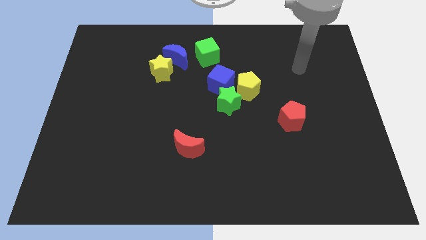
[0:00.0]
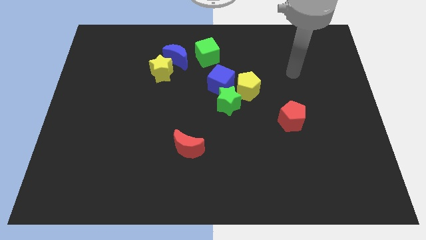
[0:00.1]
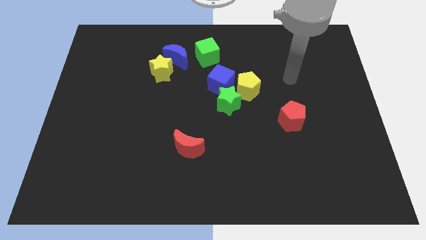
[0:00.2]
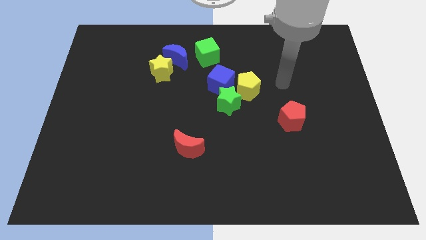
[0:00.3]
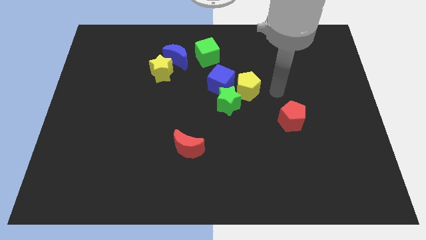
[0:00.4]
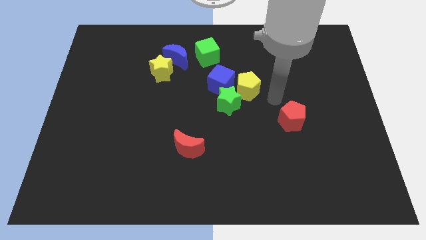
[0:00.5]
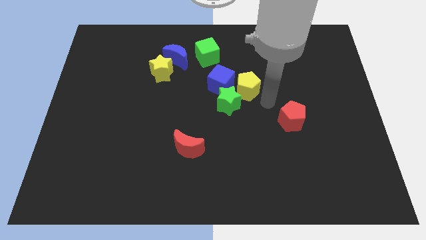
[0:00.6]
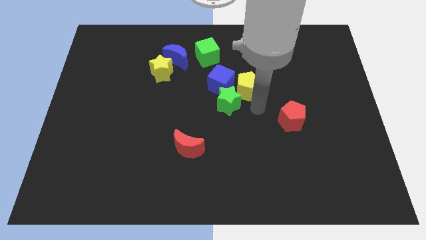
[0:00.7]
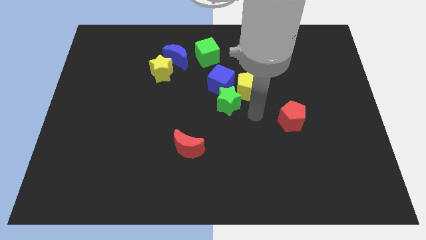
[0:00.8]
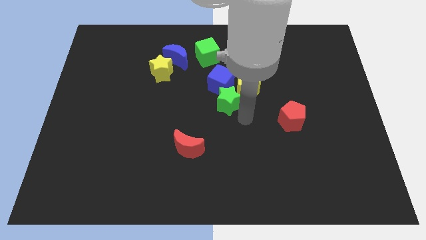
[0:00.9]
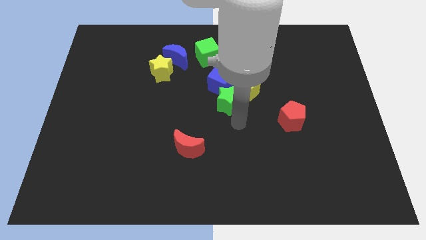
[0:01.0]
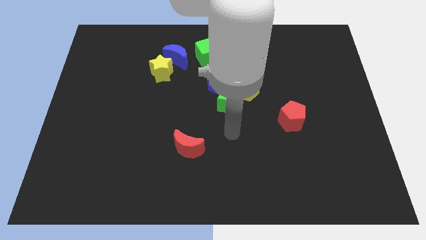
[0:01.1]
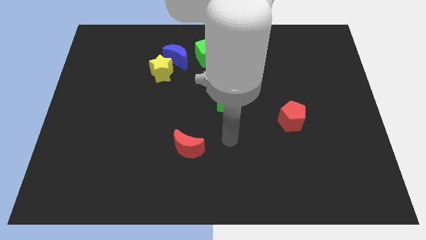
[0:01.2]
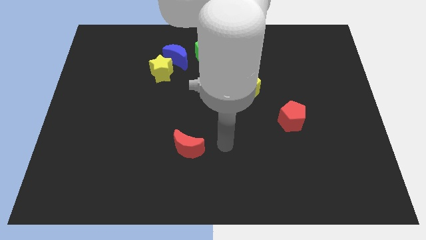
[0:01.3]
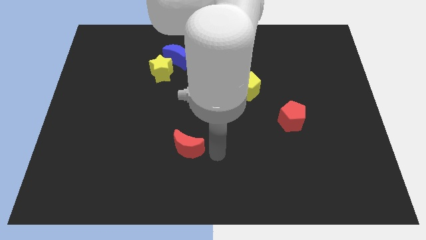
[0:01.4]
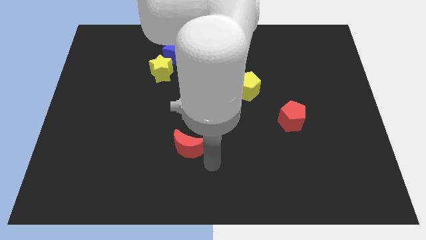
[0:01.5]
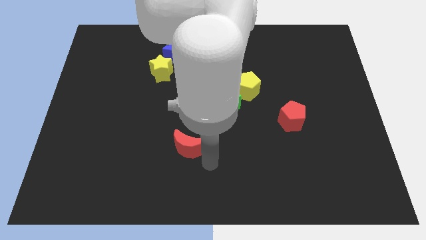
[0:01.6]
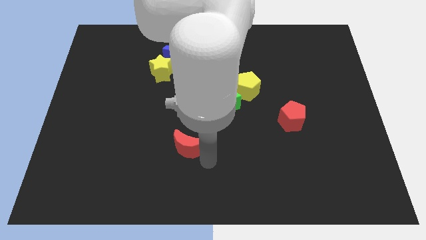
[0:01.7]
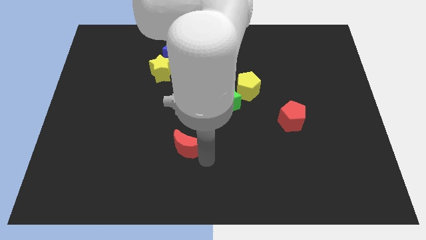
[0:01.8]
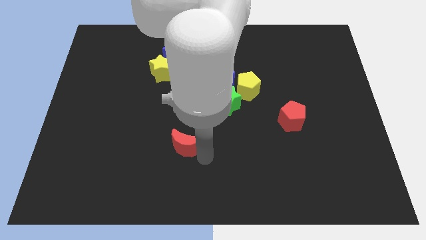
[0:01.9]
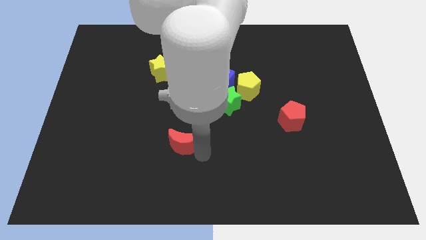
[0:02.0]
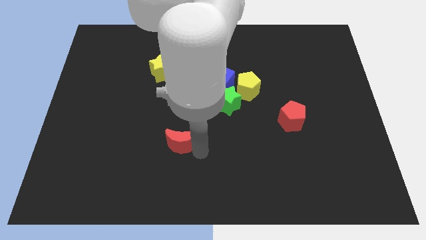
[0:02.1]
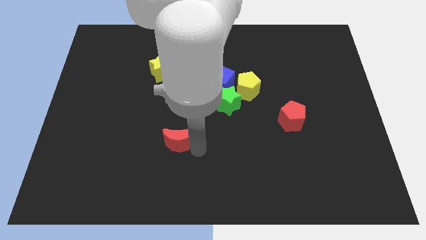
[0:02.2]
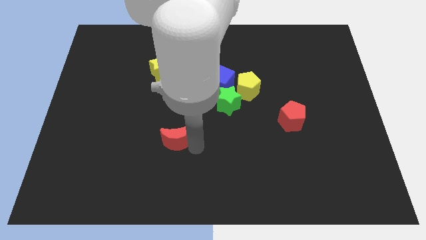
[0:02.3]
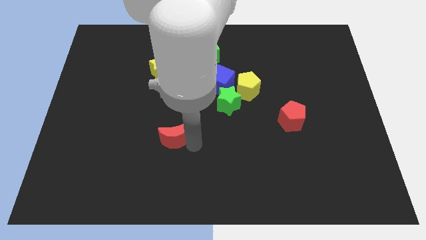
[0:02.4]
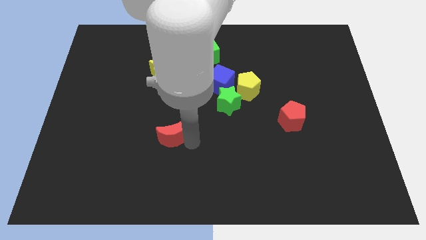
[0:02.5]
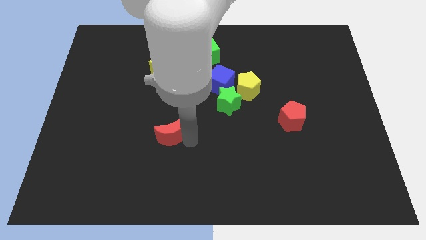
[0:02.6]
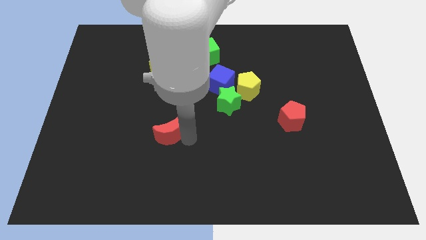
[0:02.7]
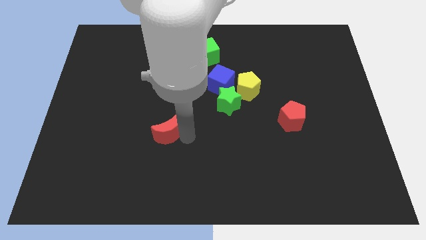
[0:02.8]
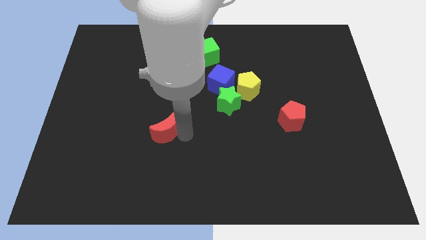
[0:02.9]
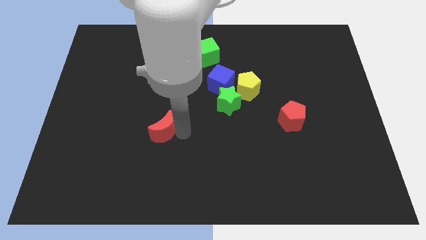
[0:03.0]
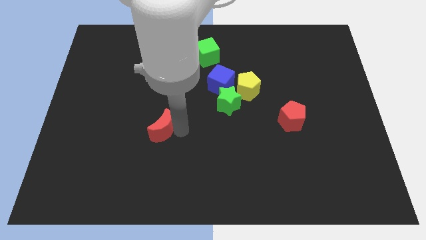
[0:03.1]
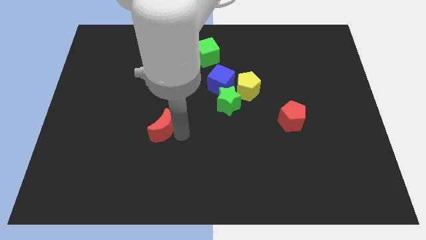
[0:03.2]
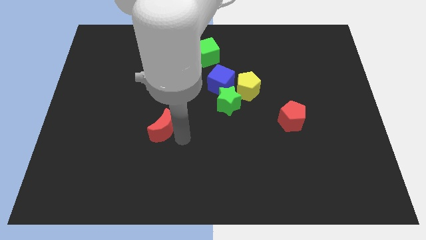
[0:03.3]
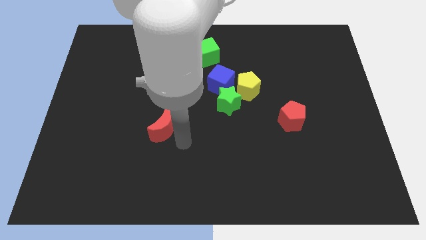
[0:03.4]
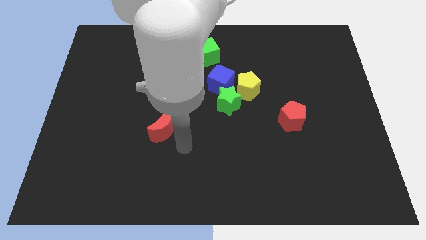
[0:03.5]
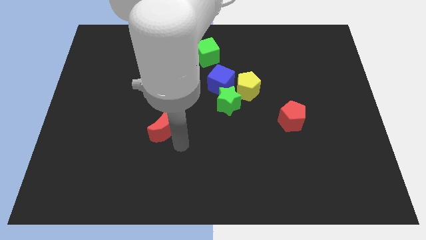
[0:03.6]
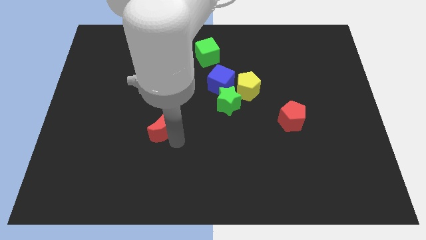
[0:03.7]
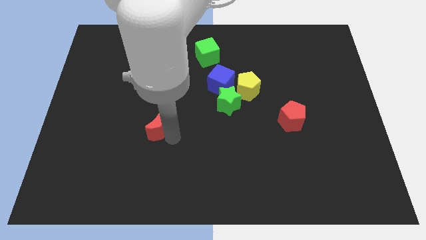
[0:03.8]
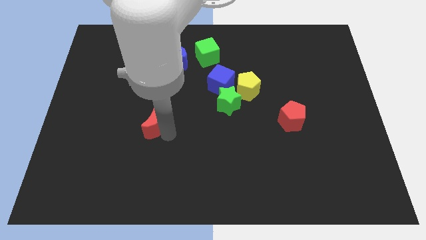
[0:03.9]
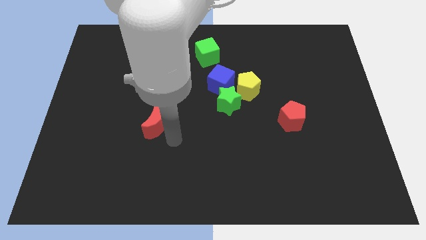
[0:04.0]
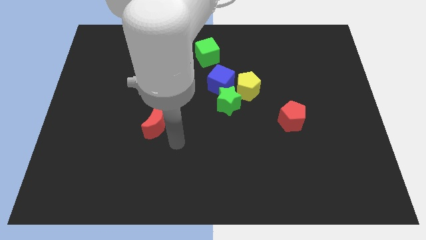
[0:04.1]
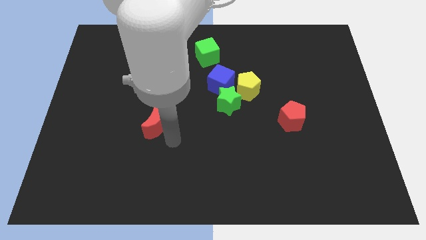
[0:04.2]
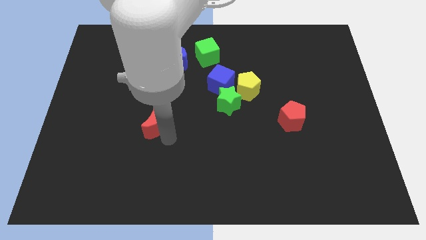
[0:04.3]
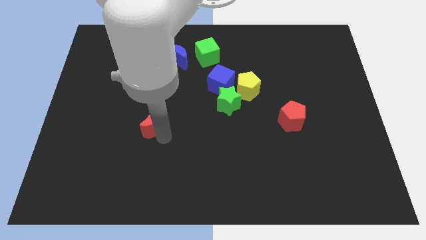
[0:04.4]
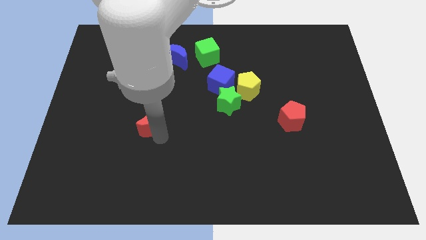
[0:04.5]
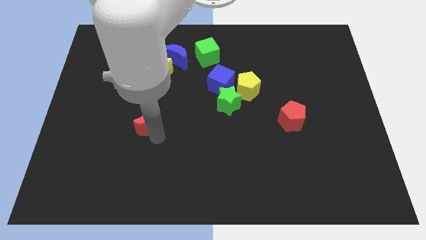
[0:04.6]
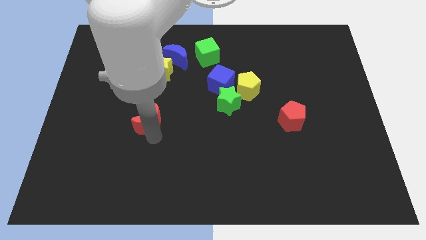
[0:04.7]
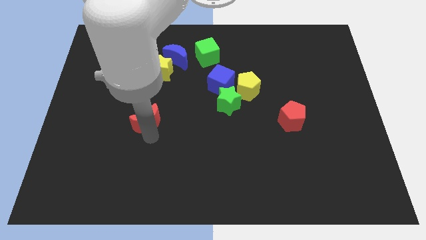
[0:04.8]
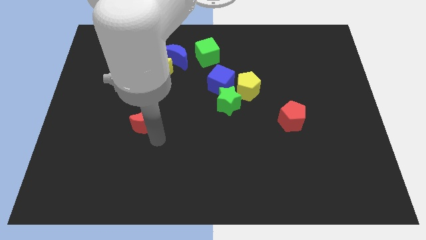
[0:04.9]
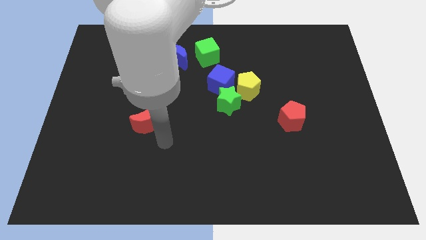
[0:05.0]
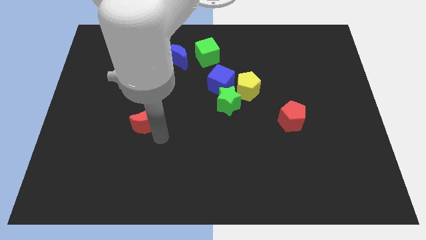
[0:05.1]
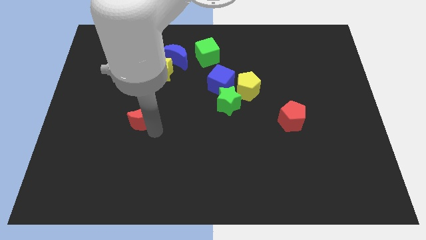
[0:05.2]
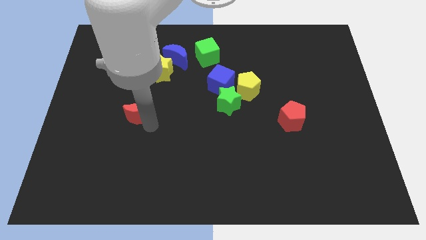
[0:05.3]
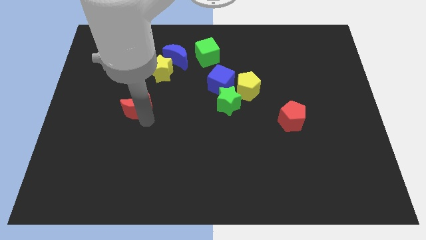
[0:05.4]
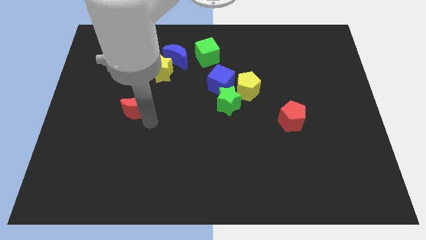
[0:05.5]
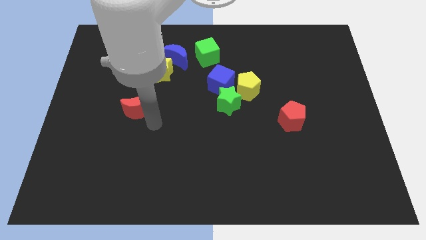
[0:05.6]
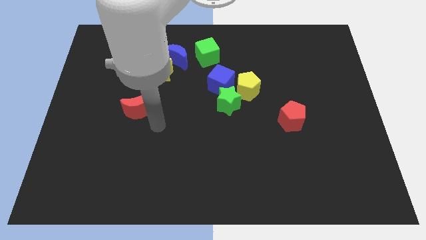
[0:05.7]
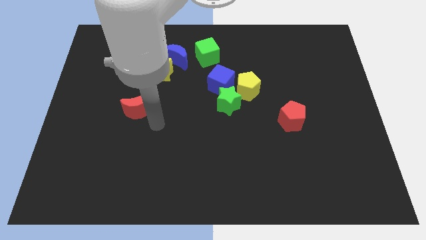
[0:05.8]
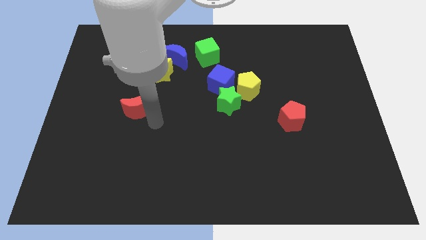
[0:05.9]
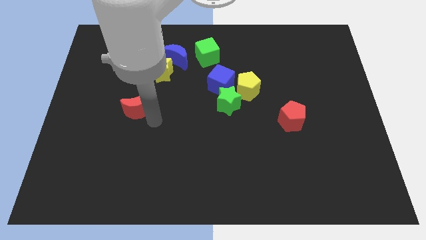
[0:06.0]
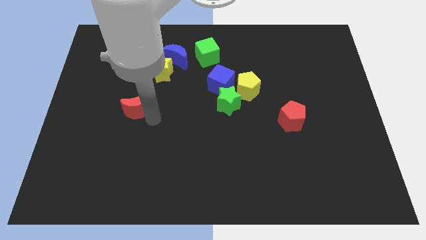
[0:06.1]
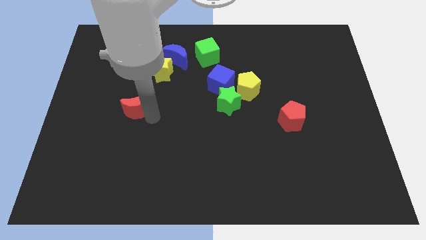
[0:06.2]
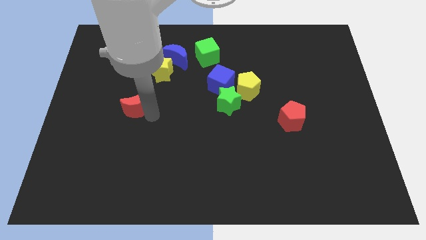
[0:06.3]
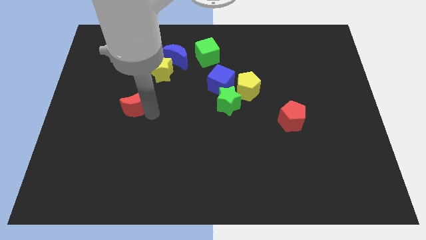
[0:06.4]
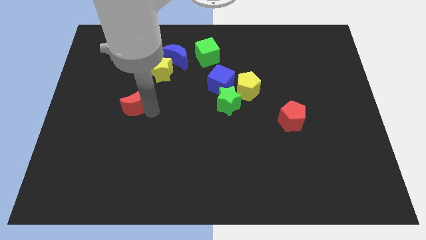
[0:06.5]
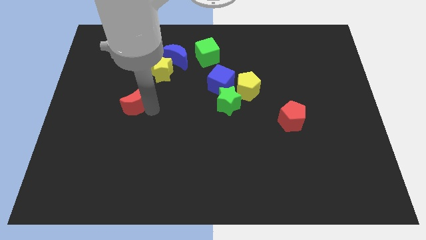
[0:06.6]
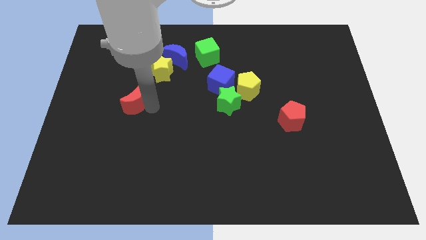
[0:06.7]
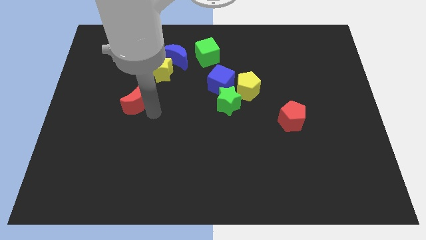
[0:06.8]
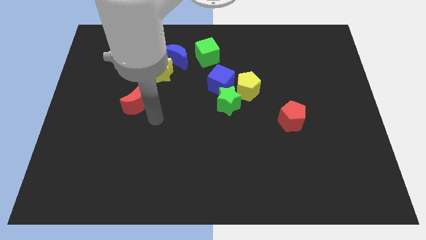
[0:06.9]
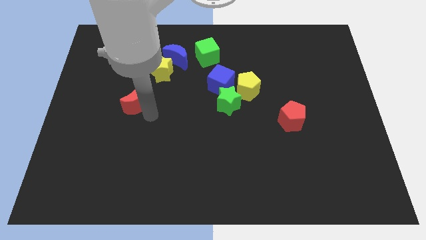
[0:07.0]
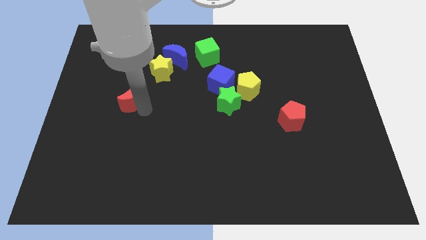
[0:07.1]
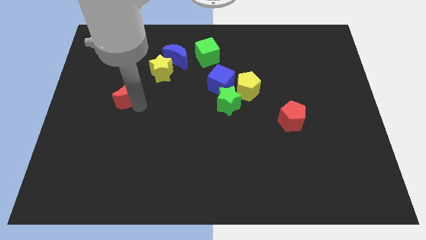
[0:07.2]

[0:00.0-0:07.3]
move the red moon upwards and left diagonally

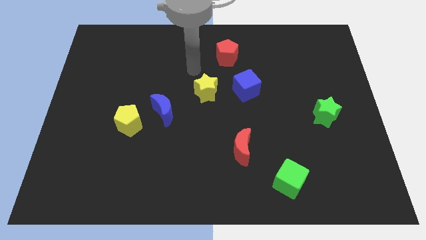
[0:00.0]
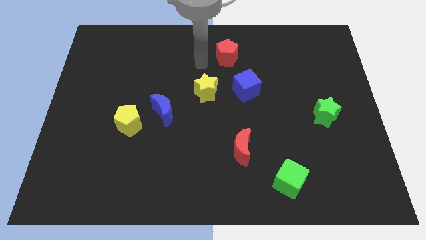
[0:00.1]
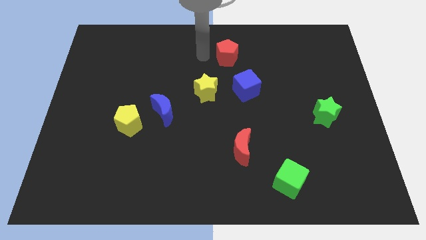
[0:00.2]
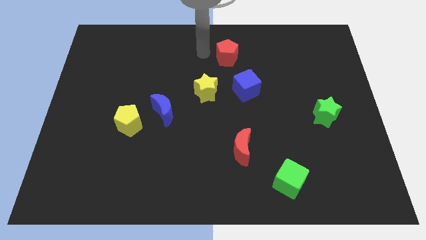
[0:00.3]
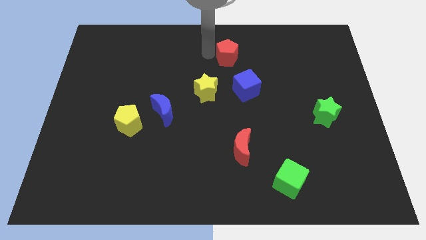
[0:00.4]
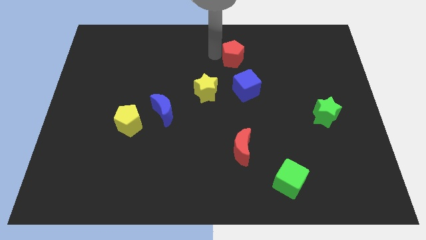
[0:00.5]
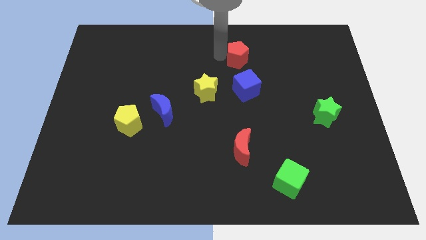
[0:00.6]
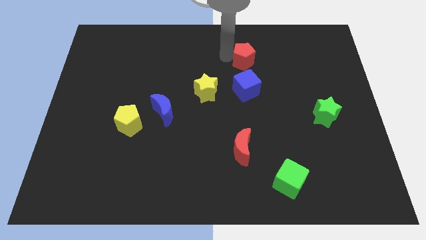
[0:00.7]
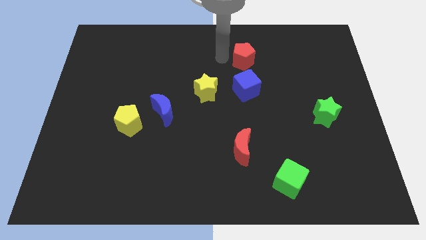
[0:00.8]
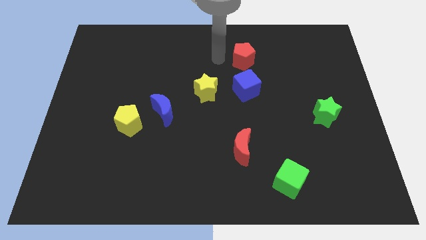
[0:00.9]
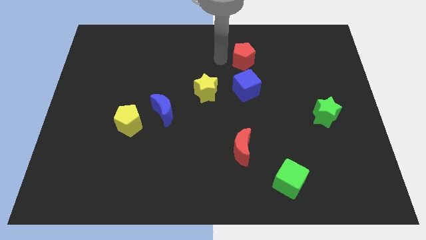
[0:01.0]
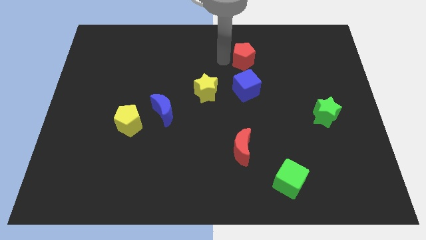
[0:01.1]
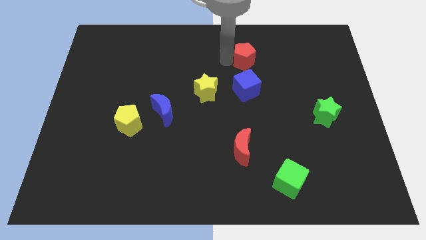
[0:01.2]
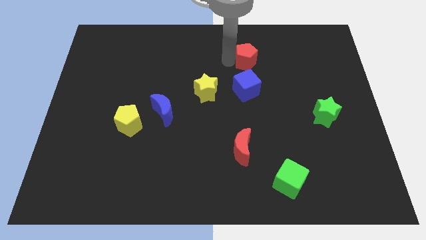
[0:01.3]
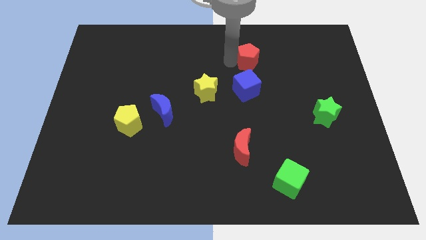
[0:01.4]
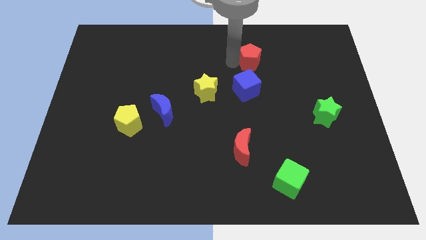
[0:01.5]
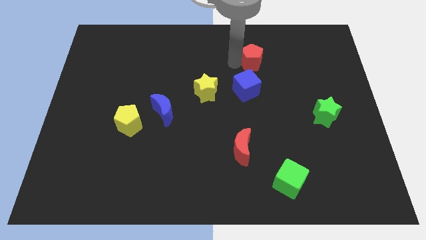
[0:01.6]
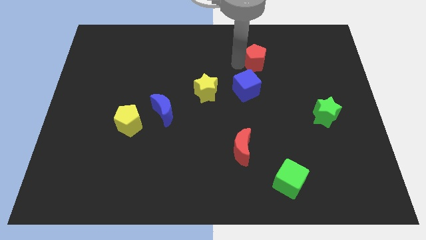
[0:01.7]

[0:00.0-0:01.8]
slightly move the red pentagon to the right
